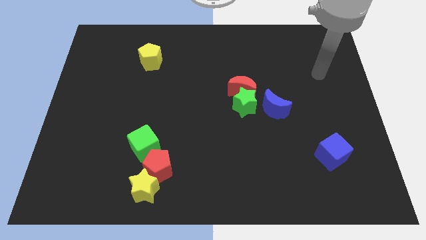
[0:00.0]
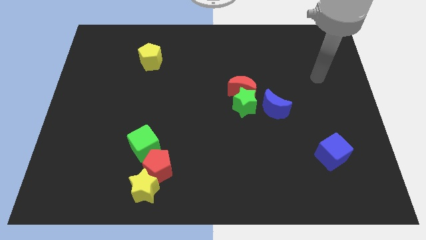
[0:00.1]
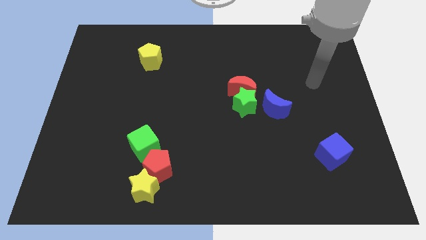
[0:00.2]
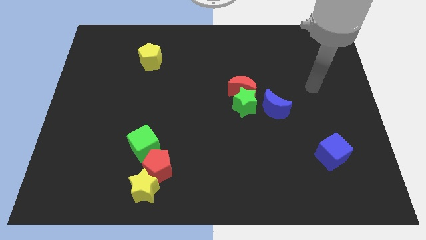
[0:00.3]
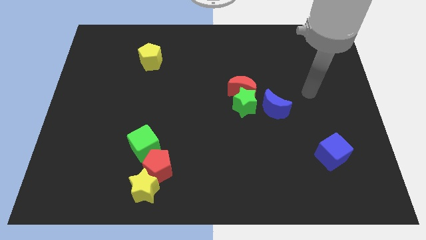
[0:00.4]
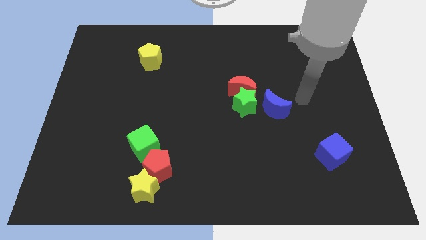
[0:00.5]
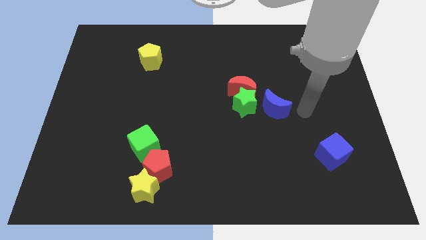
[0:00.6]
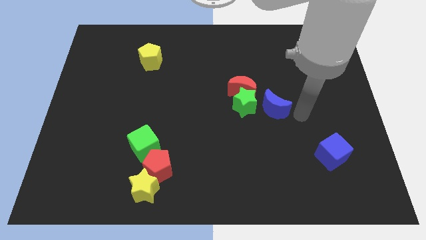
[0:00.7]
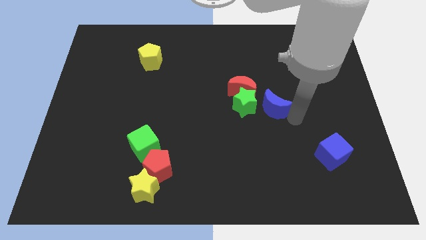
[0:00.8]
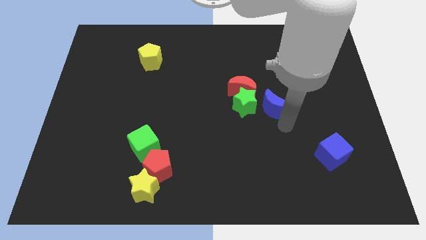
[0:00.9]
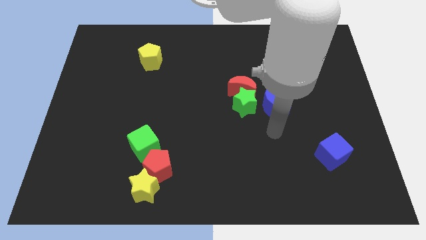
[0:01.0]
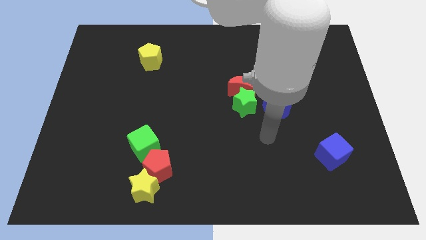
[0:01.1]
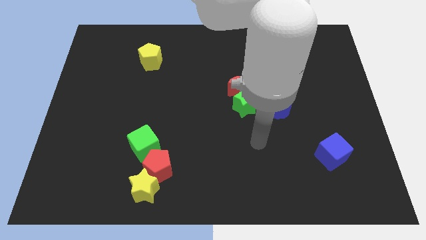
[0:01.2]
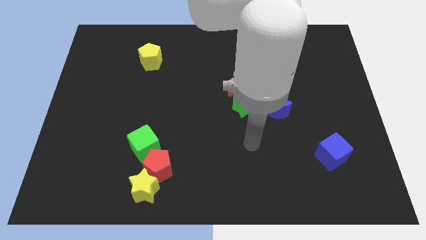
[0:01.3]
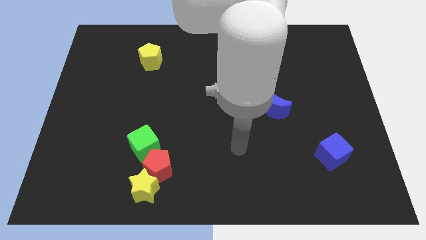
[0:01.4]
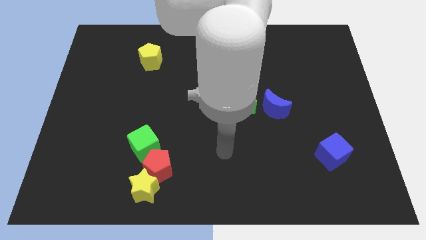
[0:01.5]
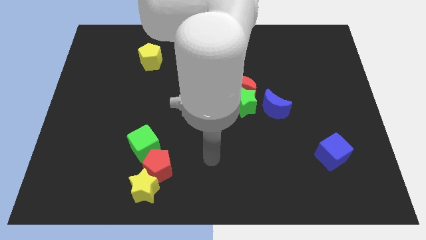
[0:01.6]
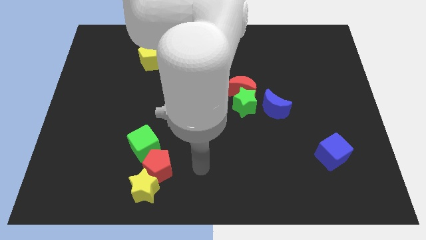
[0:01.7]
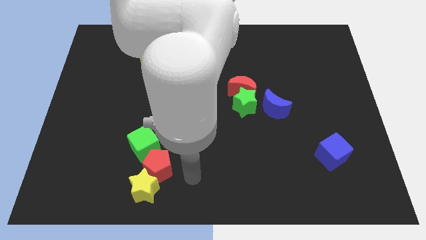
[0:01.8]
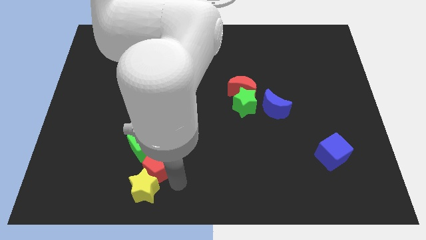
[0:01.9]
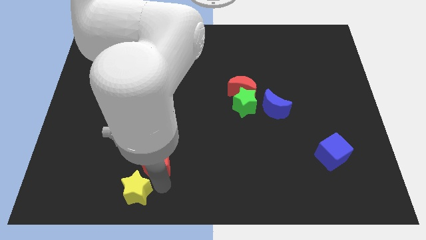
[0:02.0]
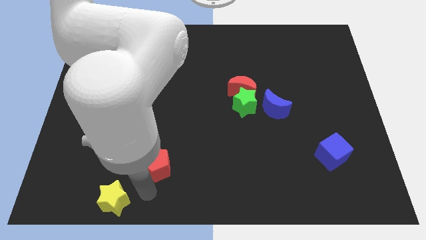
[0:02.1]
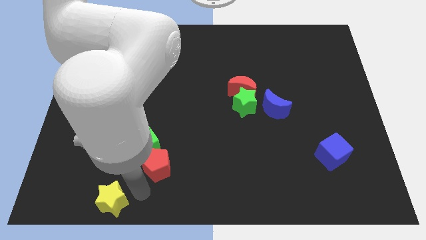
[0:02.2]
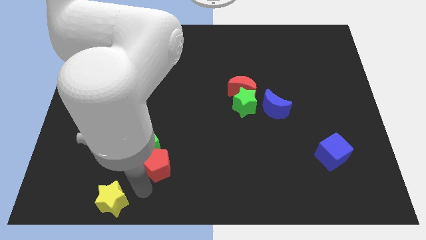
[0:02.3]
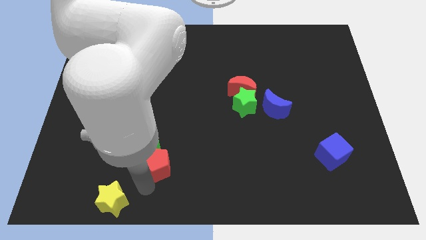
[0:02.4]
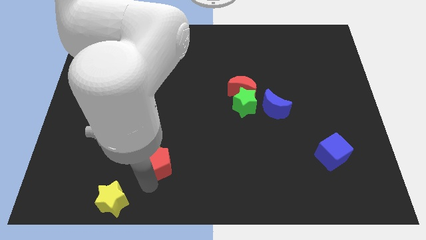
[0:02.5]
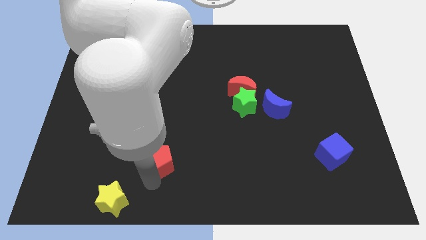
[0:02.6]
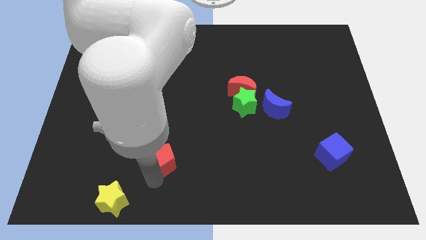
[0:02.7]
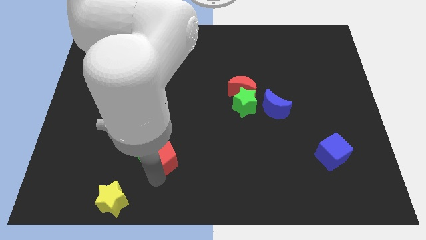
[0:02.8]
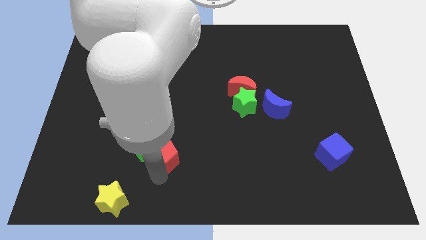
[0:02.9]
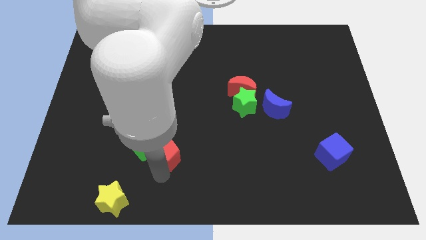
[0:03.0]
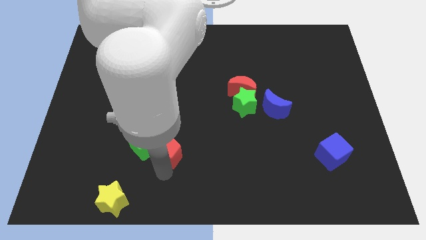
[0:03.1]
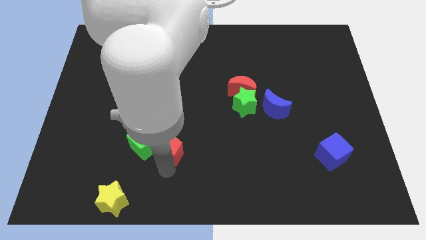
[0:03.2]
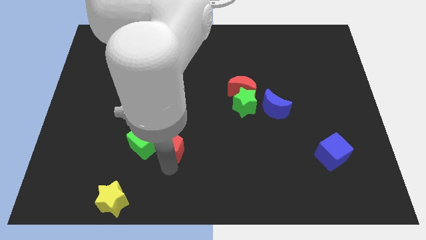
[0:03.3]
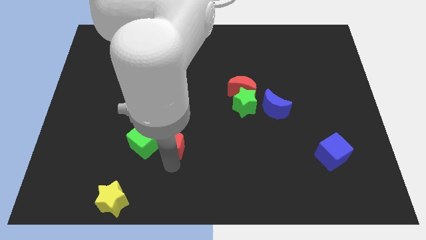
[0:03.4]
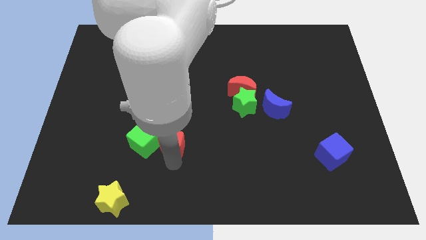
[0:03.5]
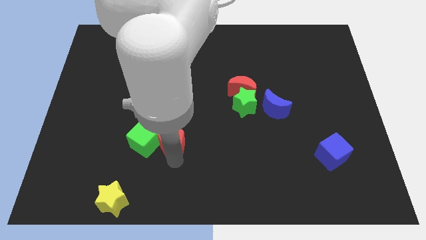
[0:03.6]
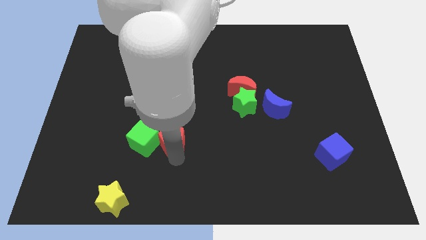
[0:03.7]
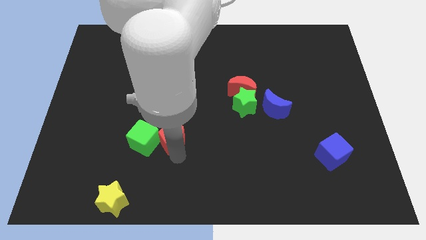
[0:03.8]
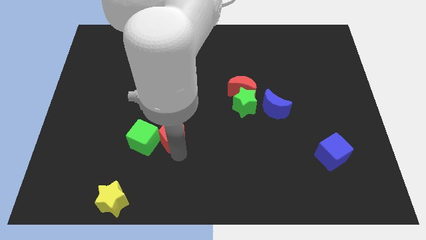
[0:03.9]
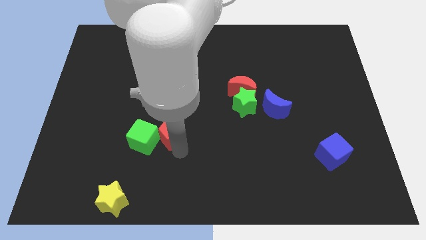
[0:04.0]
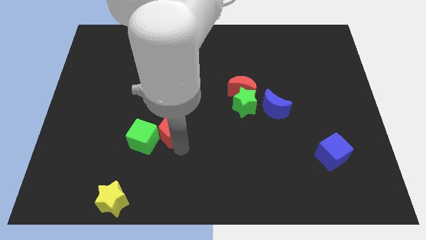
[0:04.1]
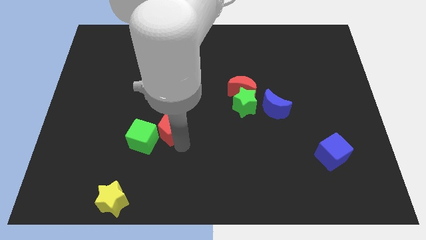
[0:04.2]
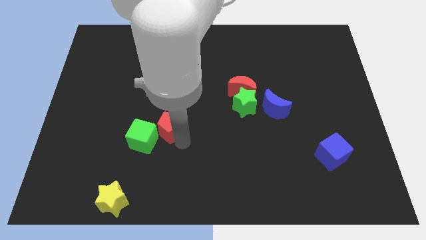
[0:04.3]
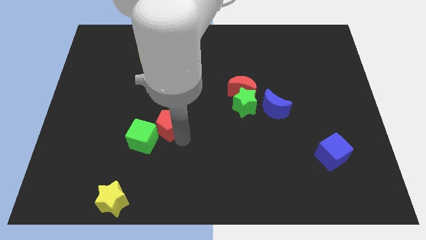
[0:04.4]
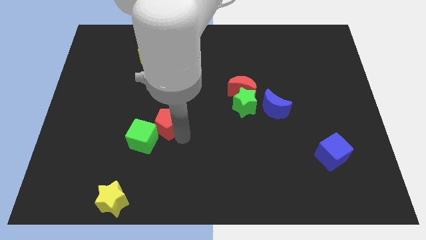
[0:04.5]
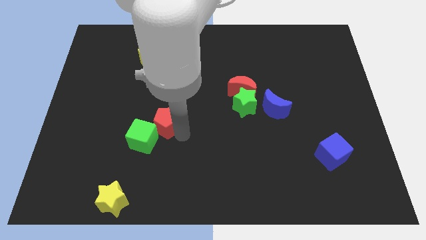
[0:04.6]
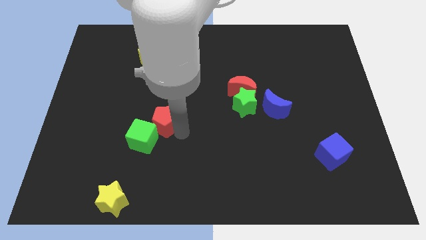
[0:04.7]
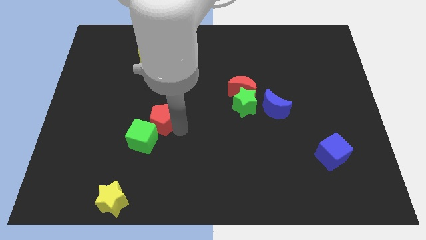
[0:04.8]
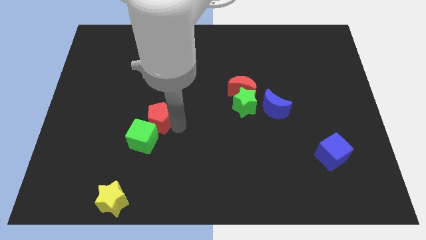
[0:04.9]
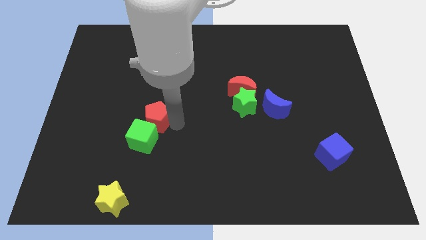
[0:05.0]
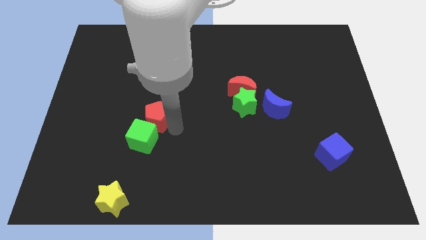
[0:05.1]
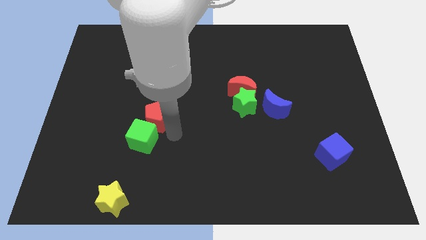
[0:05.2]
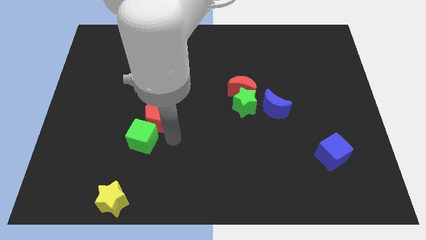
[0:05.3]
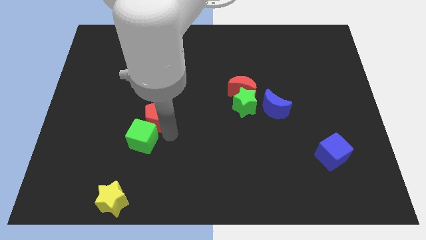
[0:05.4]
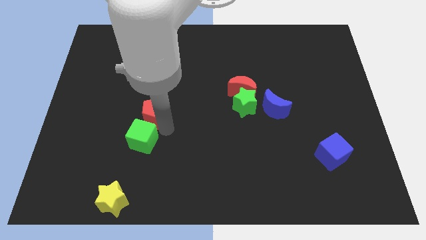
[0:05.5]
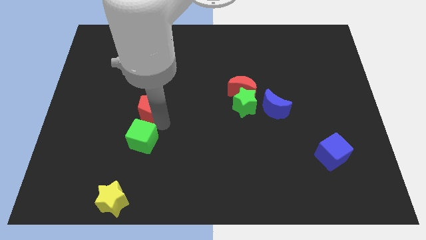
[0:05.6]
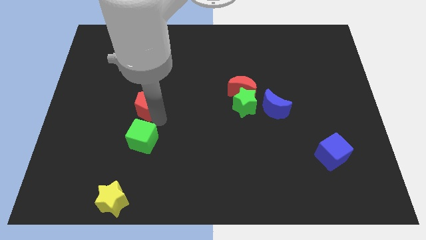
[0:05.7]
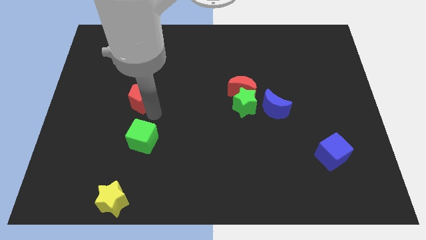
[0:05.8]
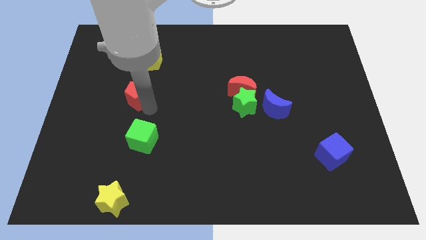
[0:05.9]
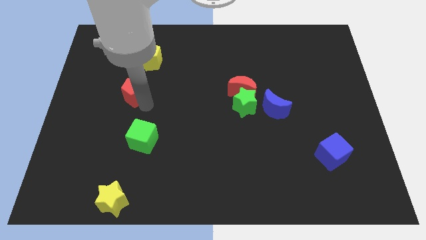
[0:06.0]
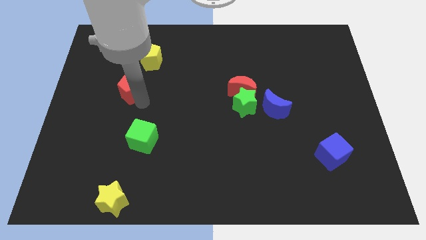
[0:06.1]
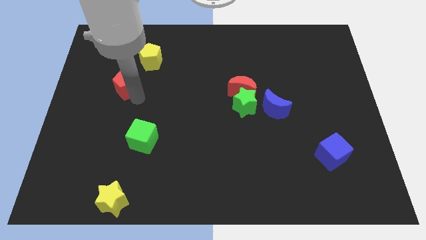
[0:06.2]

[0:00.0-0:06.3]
move the red pentagon to the bottom left side of the yellow pentagon

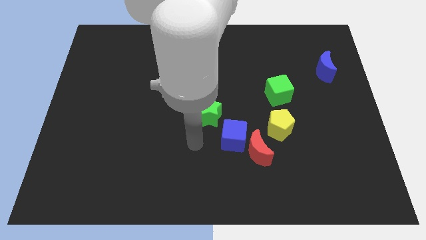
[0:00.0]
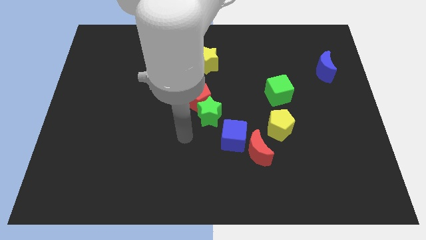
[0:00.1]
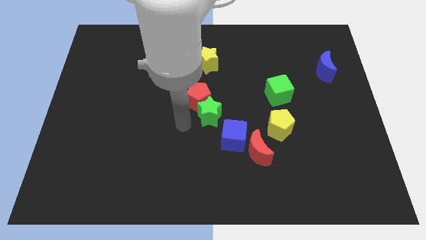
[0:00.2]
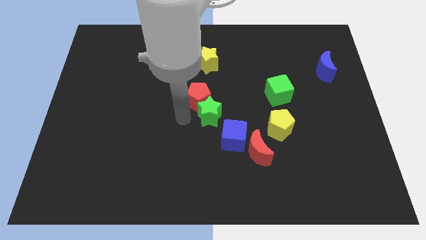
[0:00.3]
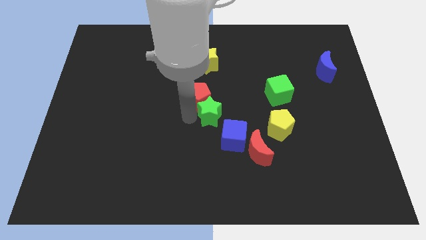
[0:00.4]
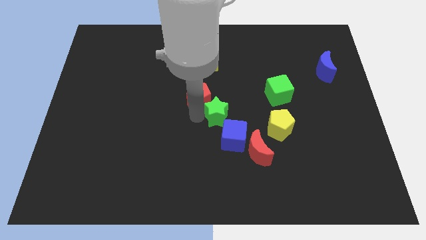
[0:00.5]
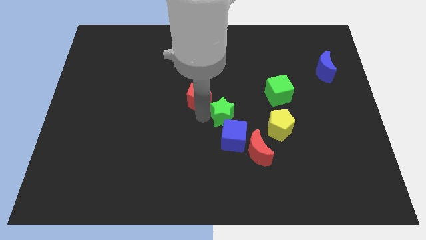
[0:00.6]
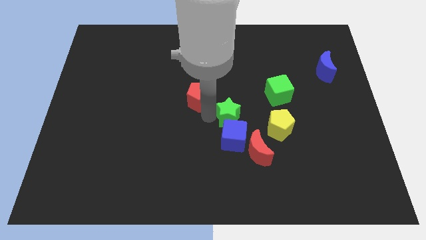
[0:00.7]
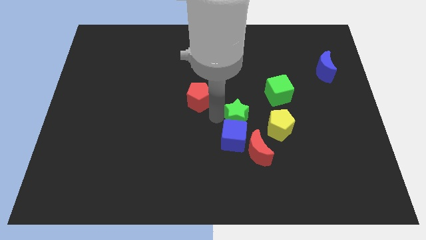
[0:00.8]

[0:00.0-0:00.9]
move the green star diagonally up and to the left of the yellow pentagon
